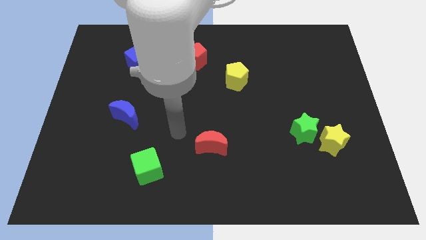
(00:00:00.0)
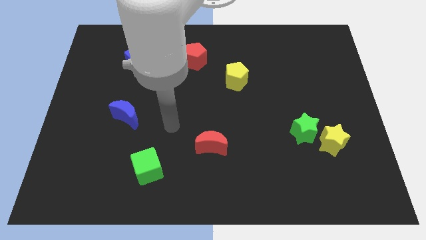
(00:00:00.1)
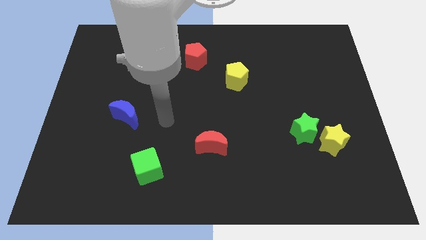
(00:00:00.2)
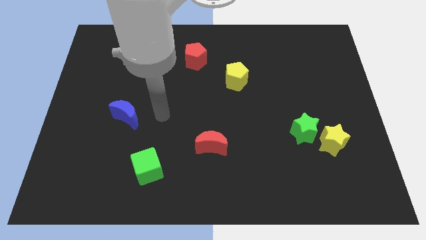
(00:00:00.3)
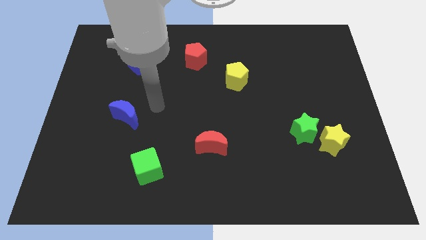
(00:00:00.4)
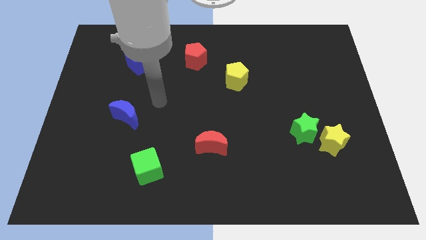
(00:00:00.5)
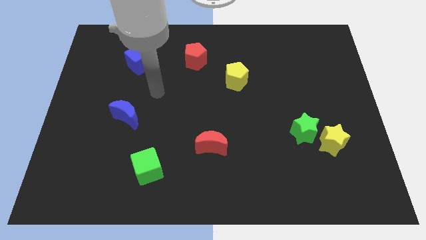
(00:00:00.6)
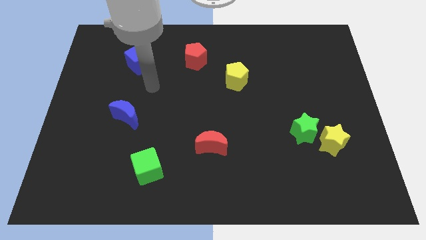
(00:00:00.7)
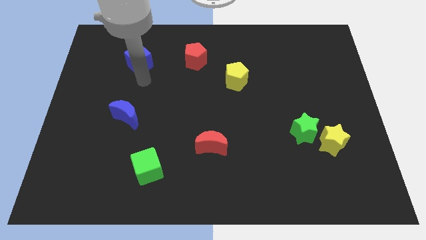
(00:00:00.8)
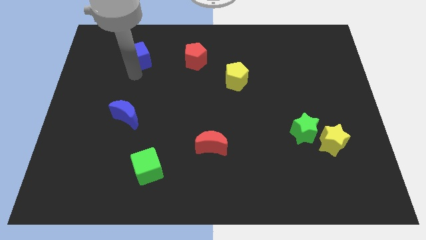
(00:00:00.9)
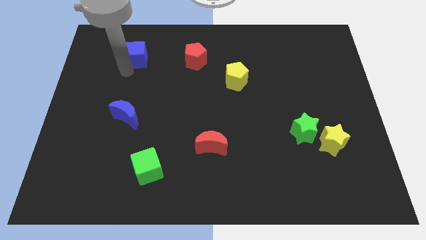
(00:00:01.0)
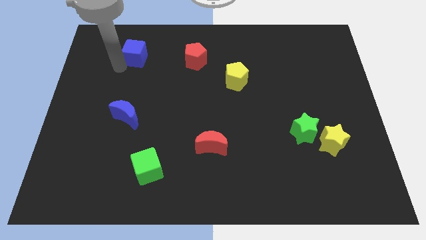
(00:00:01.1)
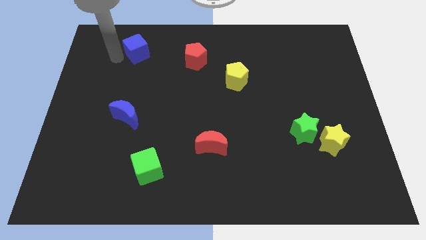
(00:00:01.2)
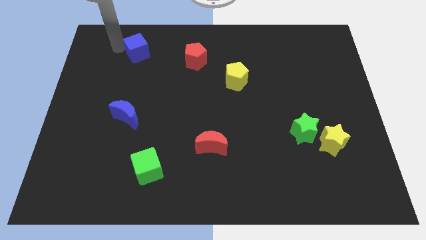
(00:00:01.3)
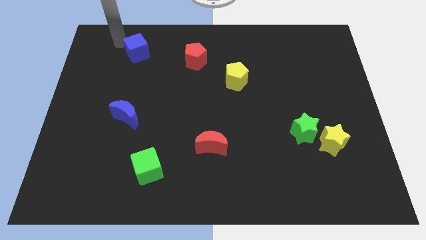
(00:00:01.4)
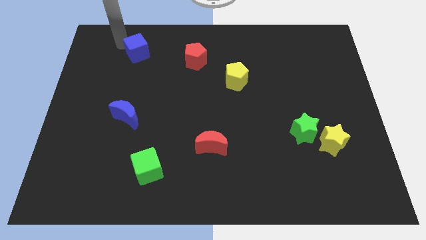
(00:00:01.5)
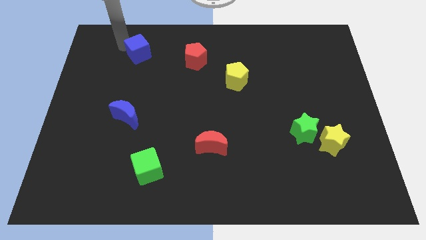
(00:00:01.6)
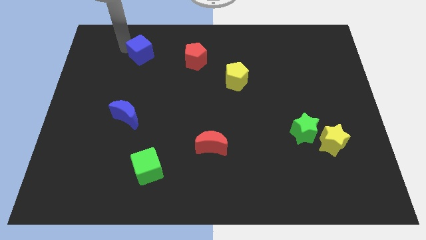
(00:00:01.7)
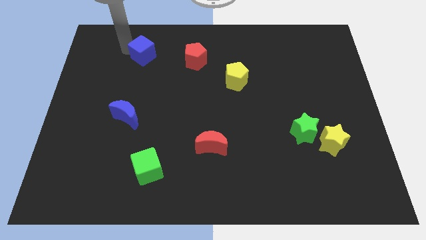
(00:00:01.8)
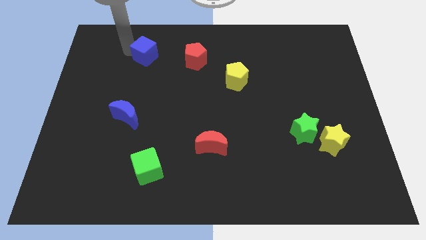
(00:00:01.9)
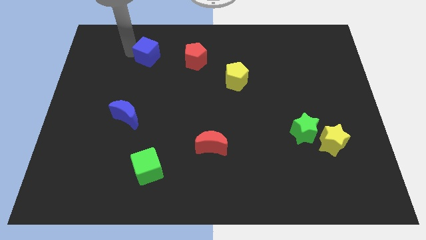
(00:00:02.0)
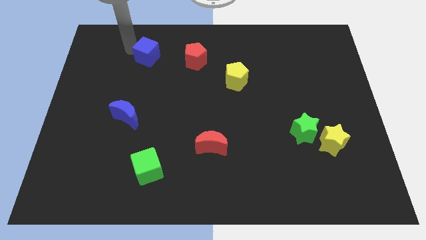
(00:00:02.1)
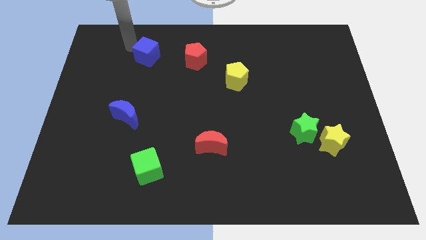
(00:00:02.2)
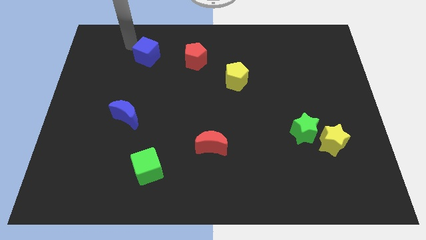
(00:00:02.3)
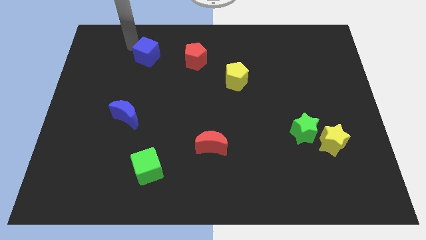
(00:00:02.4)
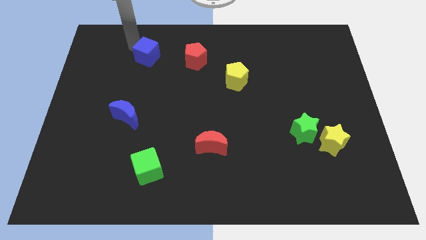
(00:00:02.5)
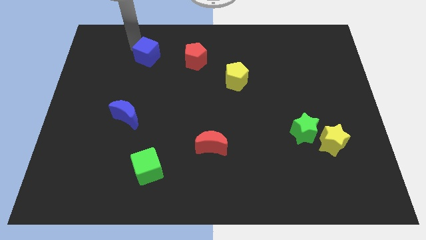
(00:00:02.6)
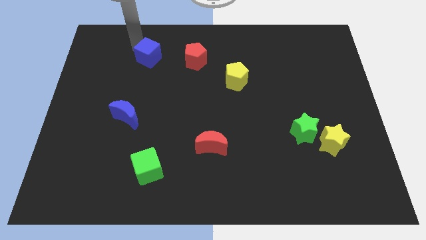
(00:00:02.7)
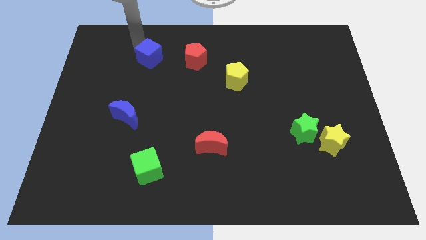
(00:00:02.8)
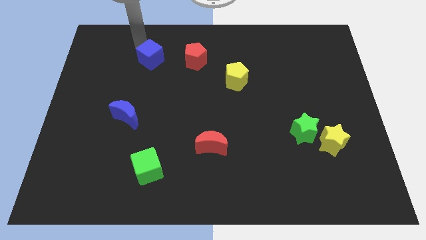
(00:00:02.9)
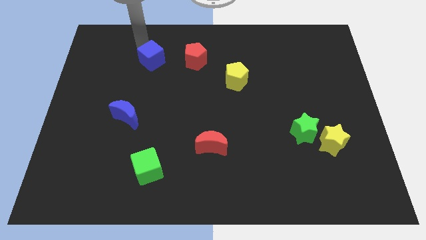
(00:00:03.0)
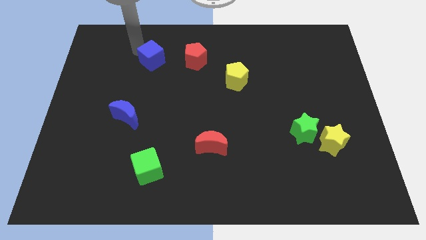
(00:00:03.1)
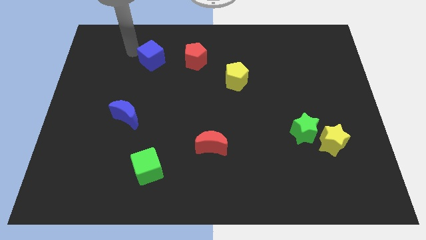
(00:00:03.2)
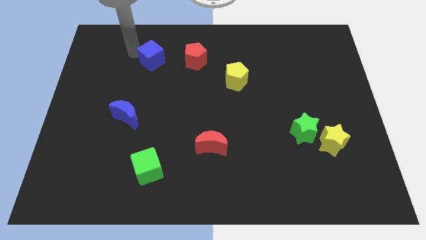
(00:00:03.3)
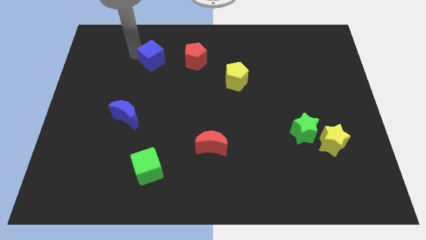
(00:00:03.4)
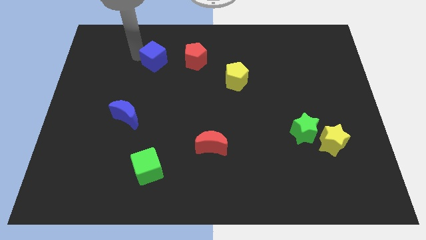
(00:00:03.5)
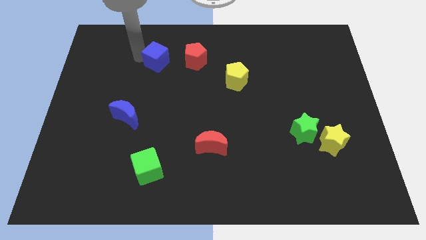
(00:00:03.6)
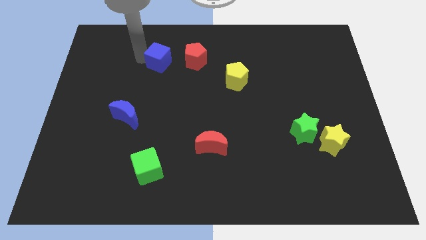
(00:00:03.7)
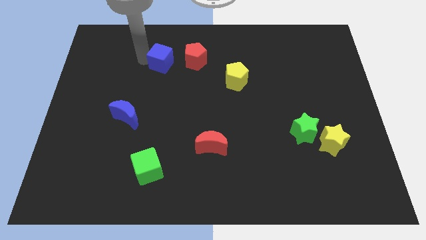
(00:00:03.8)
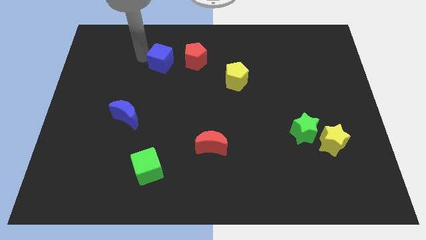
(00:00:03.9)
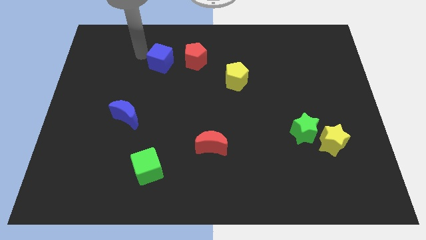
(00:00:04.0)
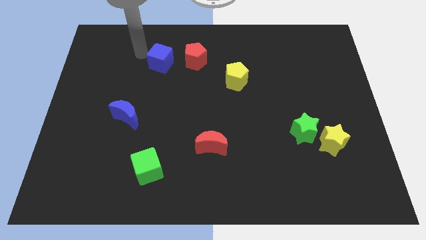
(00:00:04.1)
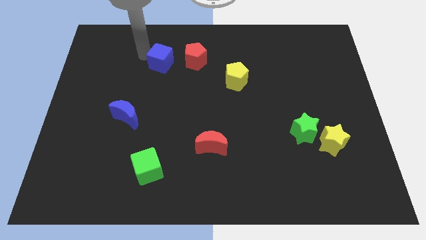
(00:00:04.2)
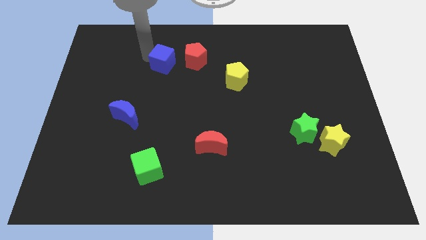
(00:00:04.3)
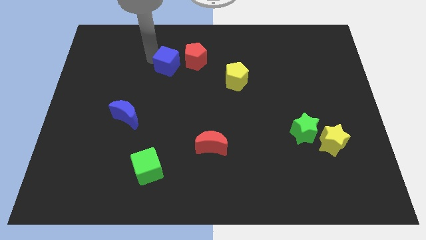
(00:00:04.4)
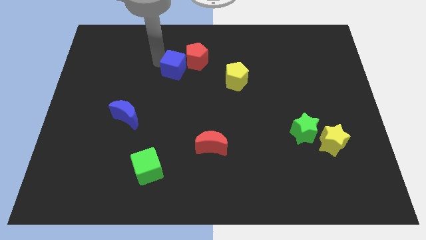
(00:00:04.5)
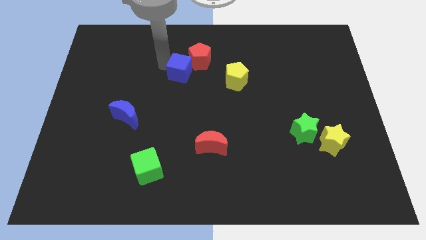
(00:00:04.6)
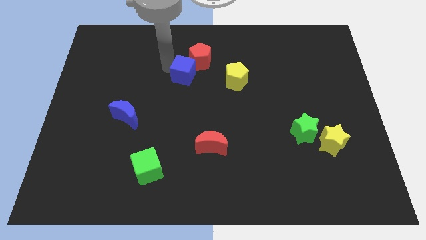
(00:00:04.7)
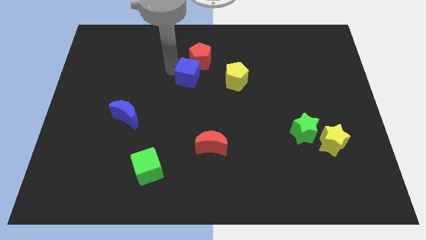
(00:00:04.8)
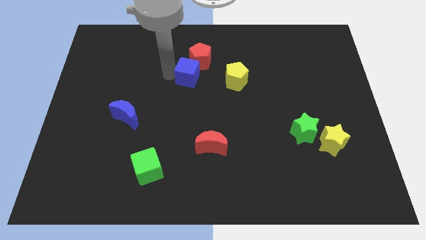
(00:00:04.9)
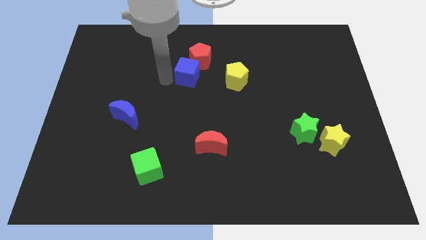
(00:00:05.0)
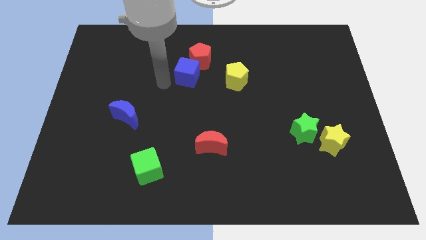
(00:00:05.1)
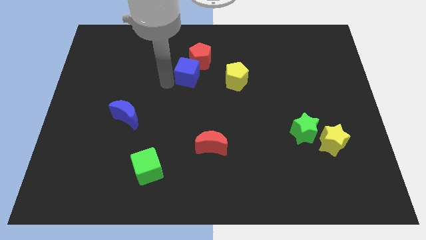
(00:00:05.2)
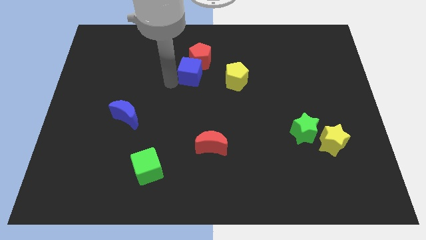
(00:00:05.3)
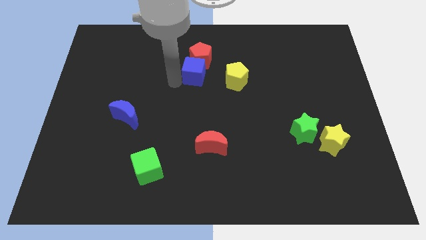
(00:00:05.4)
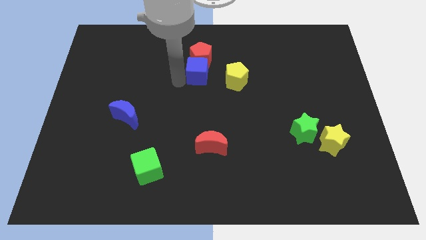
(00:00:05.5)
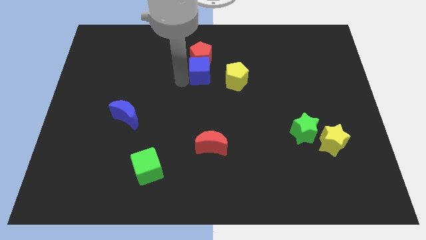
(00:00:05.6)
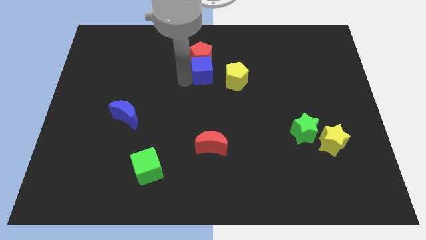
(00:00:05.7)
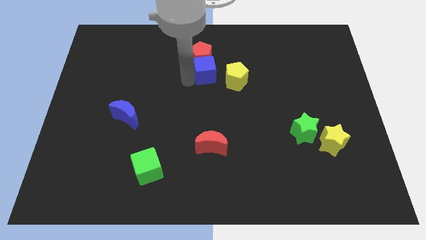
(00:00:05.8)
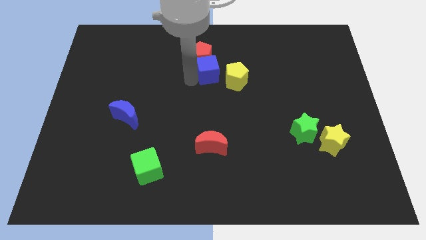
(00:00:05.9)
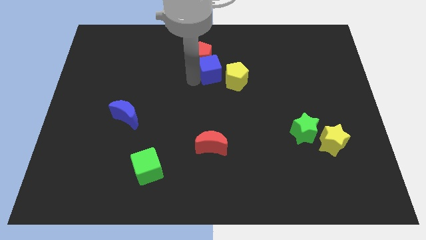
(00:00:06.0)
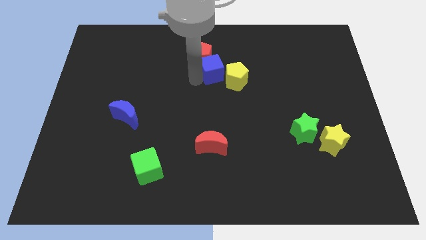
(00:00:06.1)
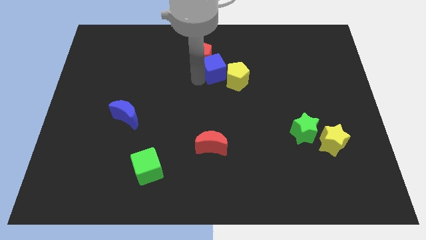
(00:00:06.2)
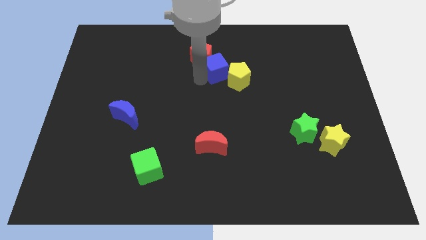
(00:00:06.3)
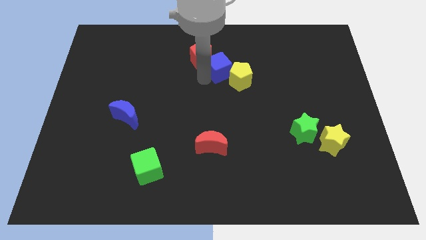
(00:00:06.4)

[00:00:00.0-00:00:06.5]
slide the blue cube to the right

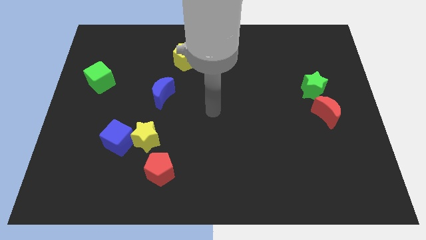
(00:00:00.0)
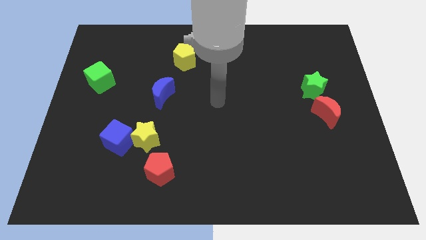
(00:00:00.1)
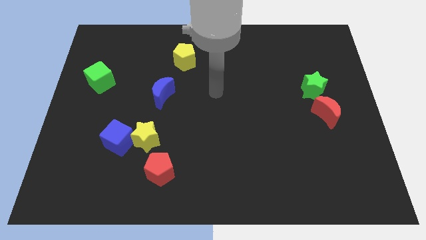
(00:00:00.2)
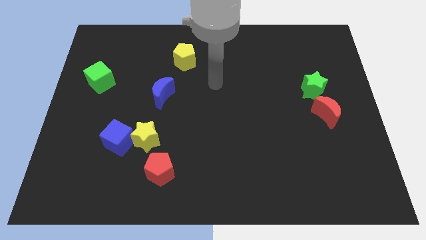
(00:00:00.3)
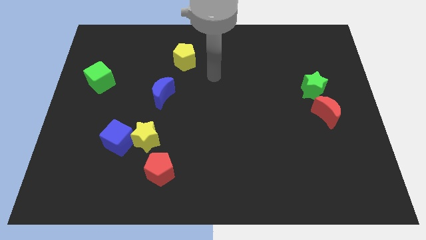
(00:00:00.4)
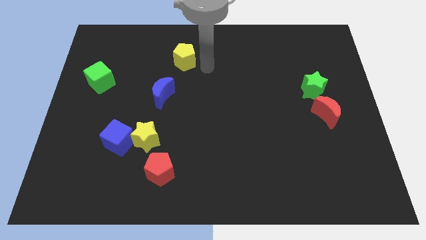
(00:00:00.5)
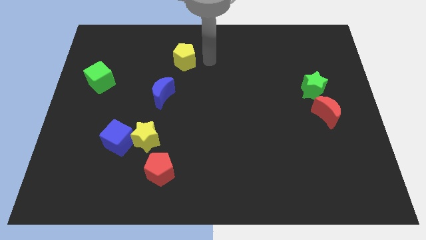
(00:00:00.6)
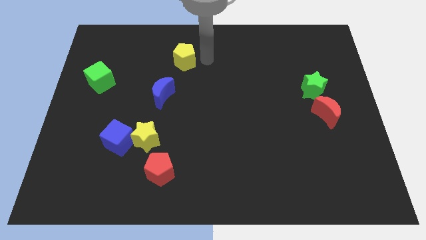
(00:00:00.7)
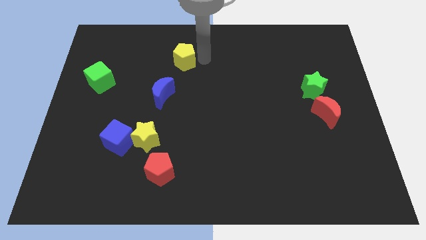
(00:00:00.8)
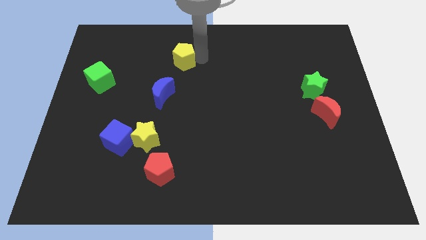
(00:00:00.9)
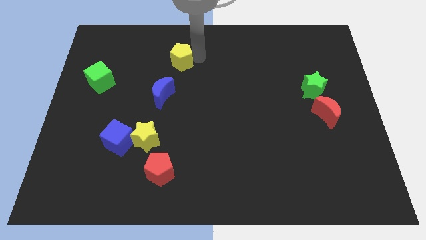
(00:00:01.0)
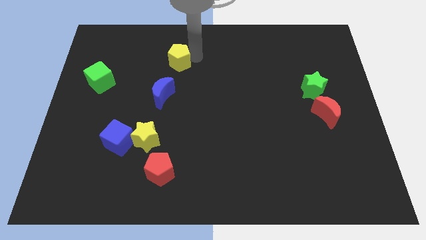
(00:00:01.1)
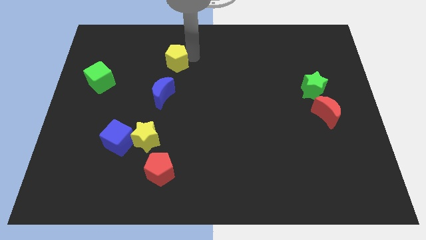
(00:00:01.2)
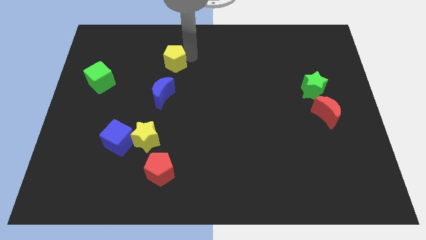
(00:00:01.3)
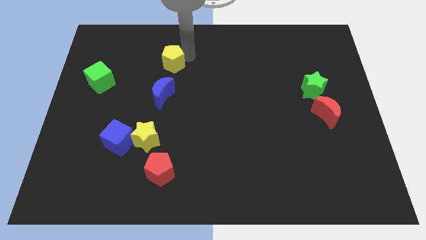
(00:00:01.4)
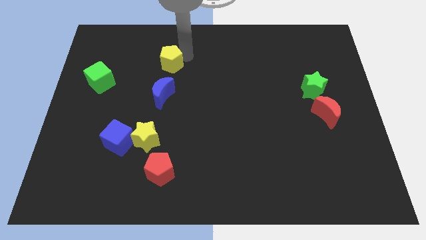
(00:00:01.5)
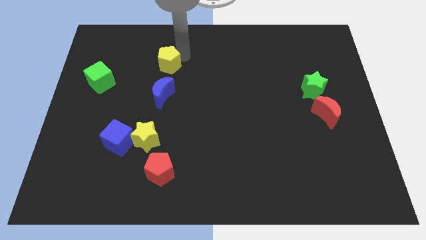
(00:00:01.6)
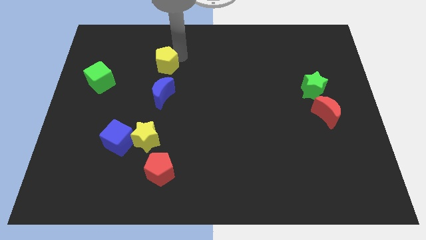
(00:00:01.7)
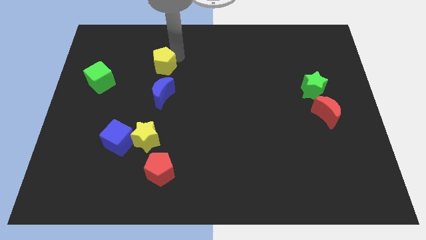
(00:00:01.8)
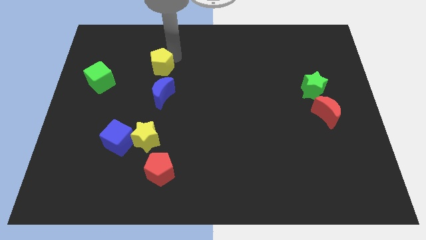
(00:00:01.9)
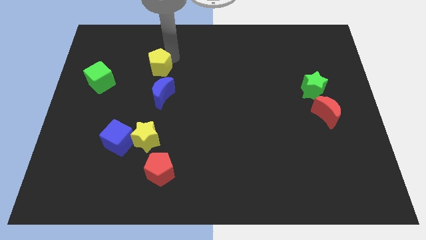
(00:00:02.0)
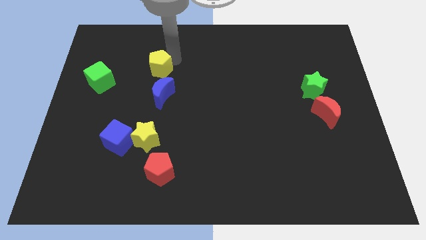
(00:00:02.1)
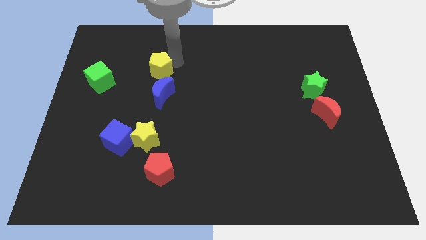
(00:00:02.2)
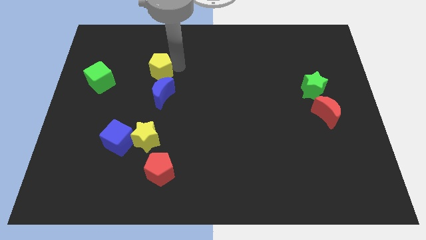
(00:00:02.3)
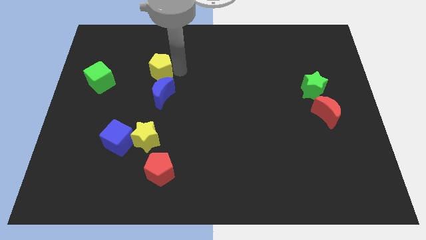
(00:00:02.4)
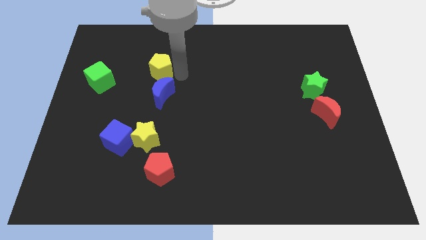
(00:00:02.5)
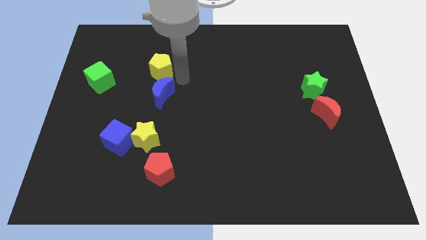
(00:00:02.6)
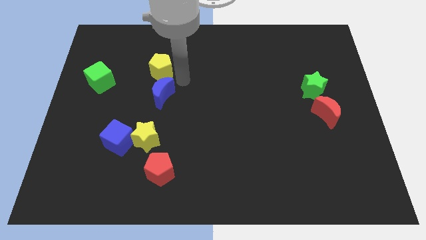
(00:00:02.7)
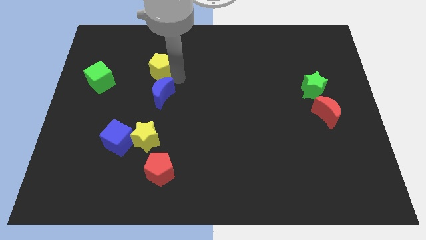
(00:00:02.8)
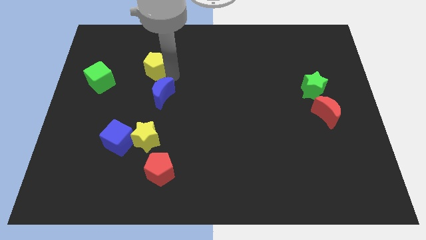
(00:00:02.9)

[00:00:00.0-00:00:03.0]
push the yellow pentagon a bit to the left
